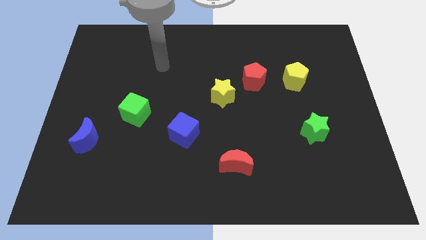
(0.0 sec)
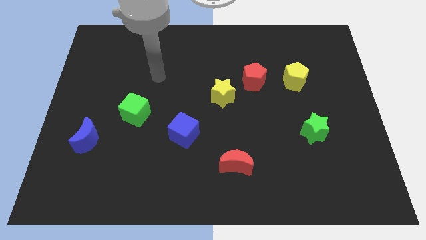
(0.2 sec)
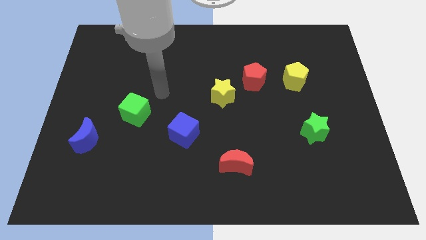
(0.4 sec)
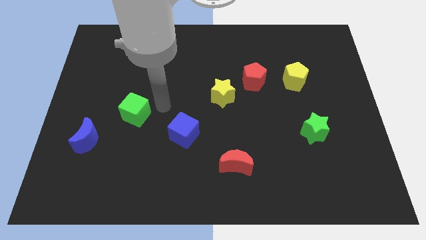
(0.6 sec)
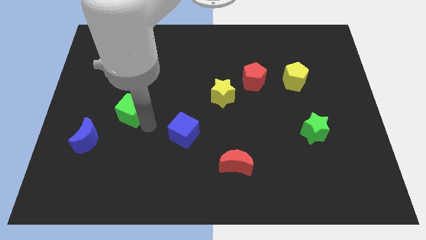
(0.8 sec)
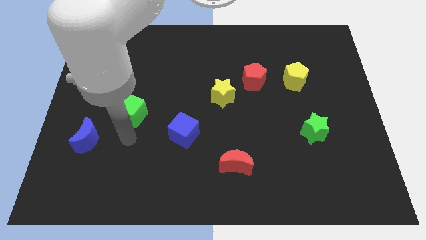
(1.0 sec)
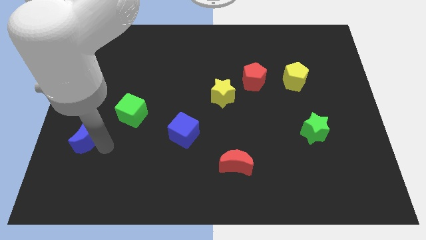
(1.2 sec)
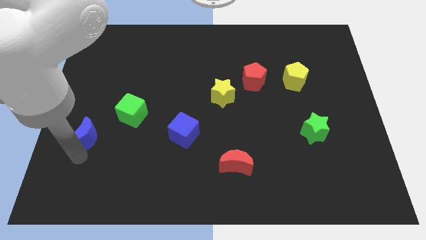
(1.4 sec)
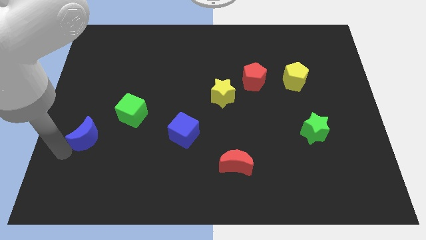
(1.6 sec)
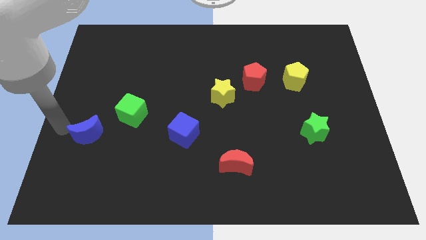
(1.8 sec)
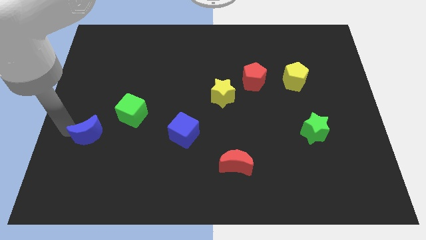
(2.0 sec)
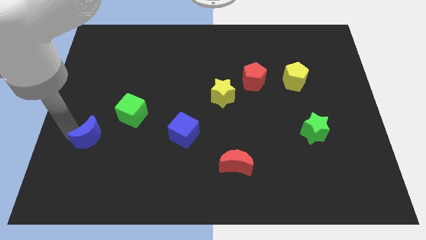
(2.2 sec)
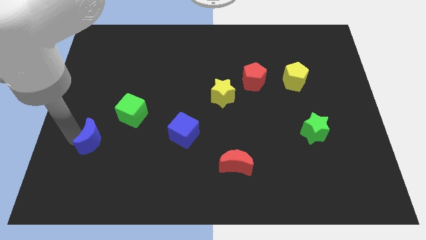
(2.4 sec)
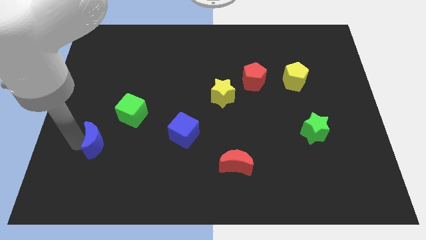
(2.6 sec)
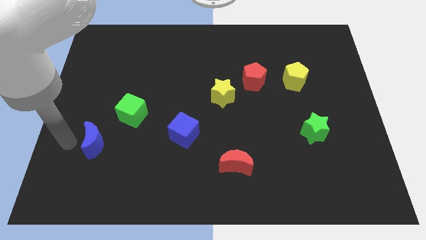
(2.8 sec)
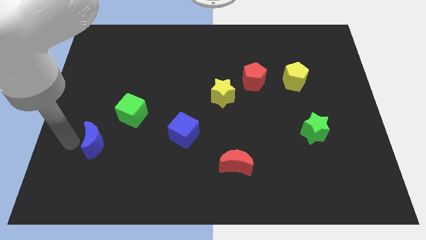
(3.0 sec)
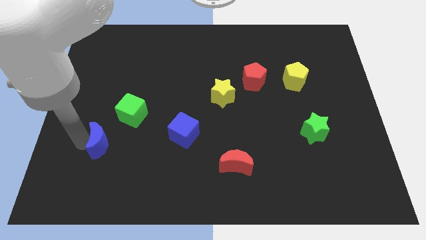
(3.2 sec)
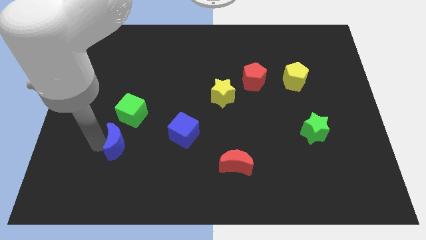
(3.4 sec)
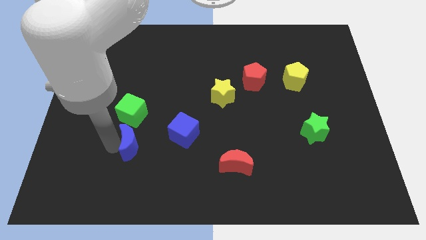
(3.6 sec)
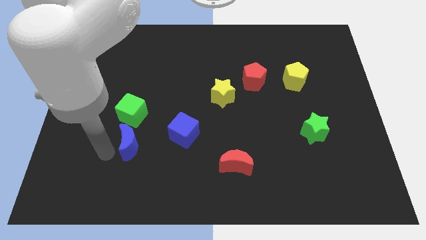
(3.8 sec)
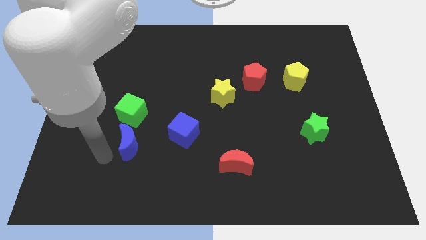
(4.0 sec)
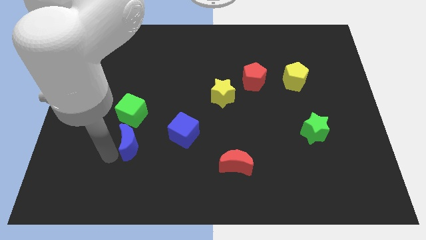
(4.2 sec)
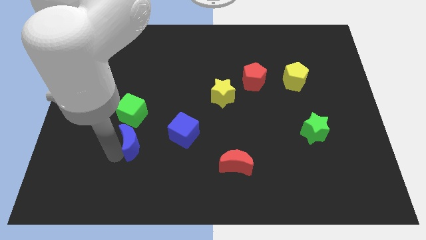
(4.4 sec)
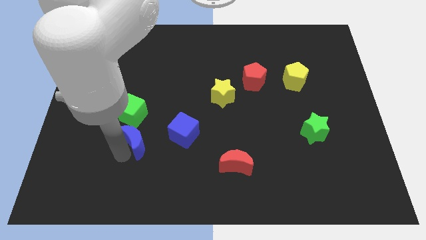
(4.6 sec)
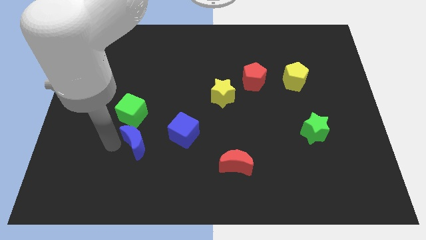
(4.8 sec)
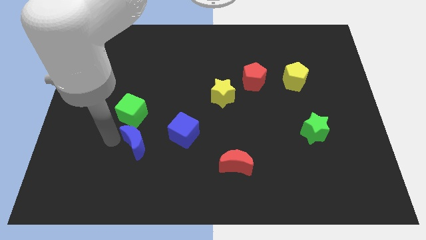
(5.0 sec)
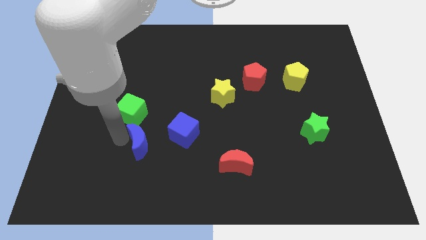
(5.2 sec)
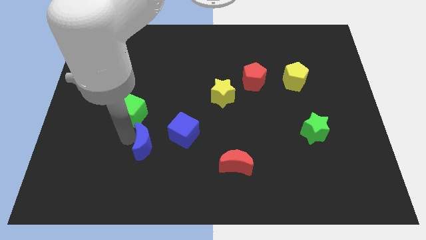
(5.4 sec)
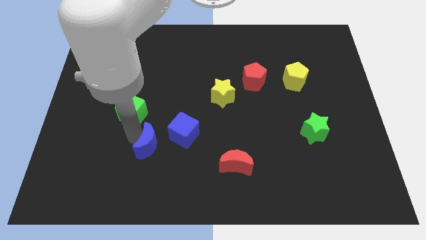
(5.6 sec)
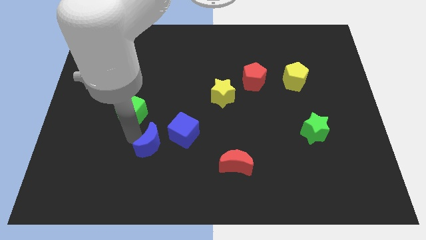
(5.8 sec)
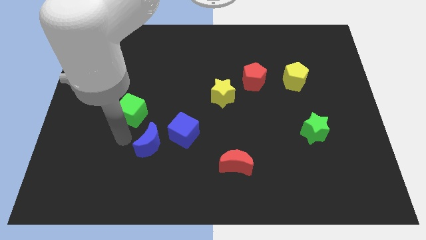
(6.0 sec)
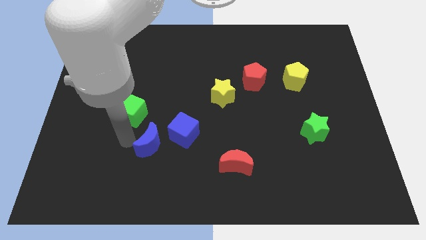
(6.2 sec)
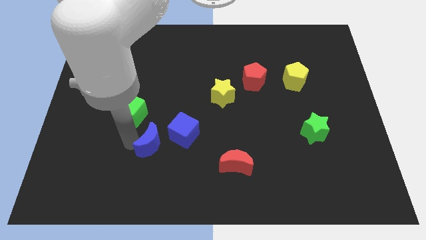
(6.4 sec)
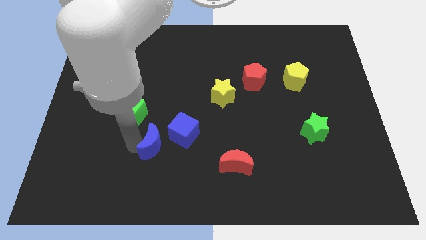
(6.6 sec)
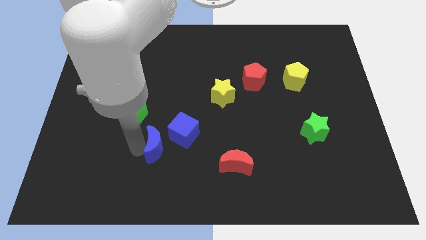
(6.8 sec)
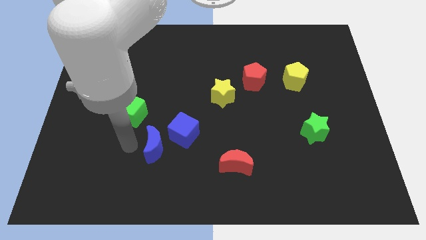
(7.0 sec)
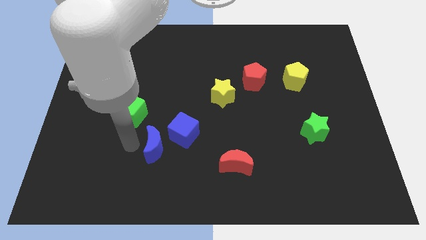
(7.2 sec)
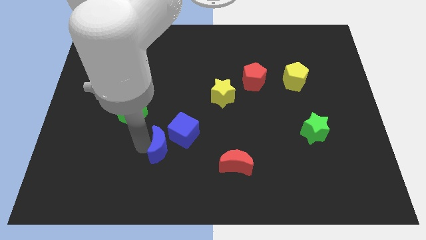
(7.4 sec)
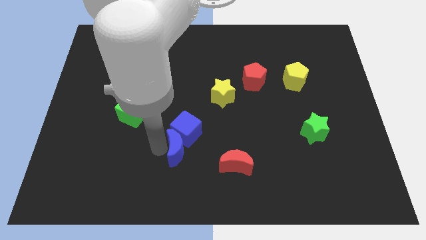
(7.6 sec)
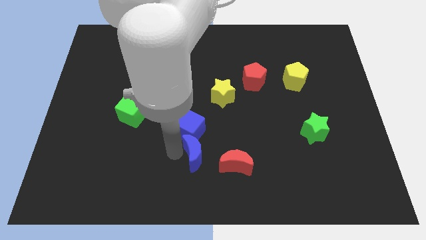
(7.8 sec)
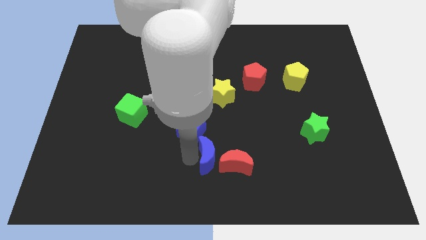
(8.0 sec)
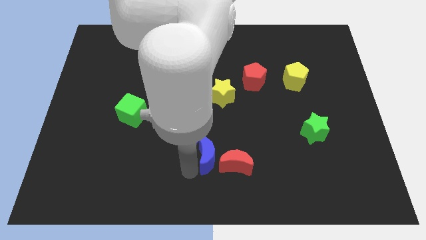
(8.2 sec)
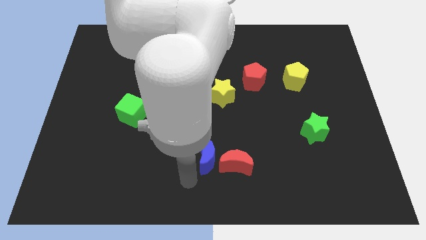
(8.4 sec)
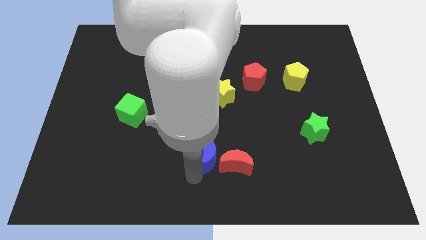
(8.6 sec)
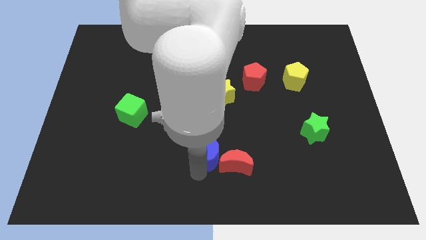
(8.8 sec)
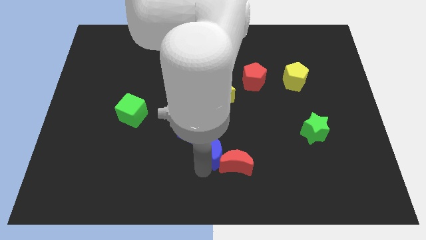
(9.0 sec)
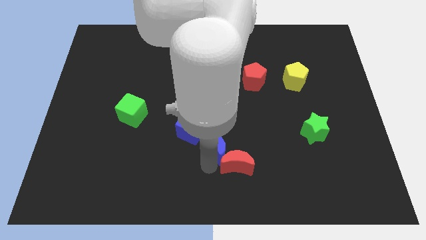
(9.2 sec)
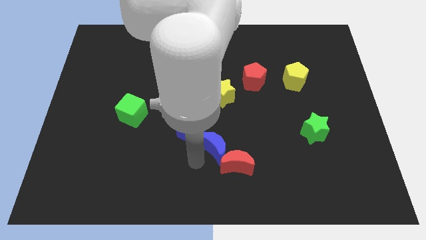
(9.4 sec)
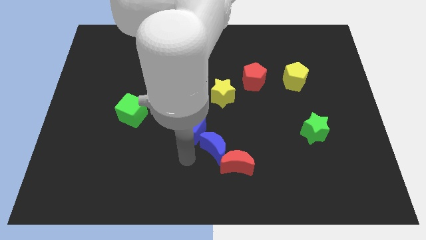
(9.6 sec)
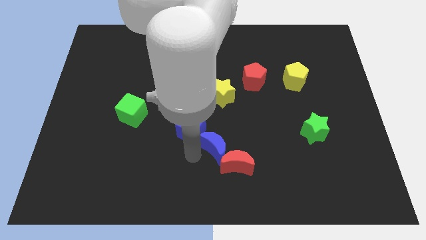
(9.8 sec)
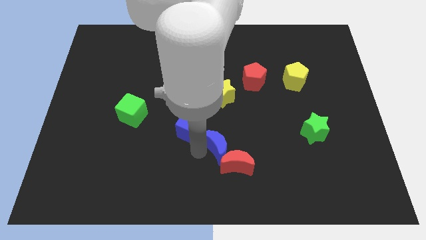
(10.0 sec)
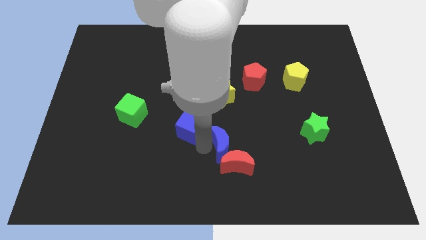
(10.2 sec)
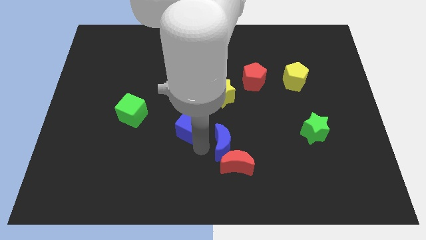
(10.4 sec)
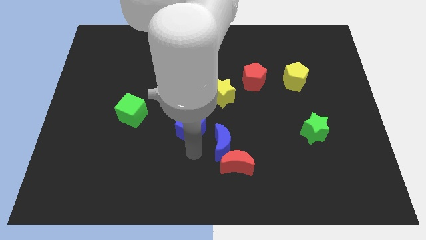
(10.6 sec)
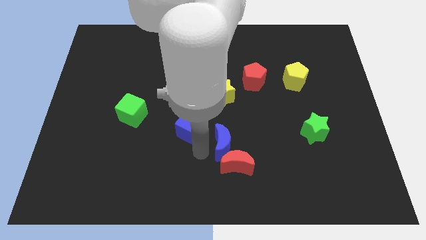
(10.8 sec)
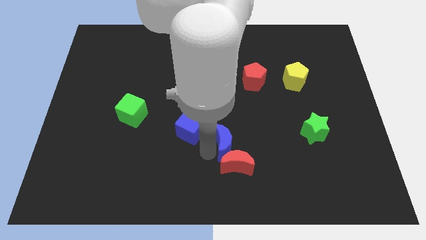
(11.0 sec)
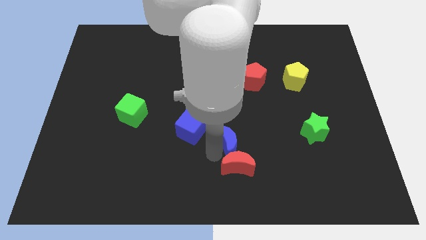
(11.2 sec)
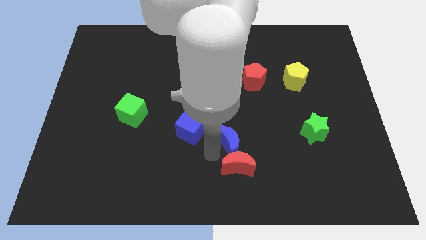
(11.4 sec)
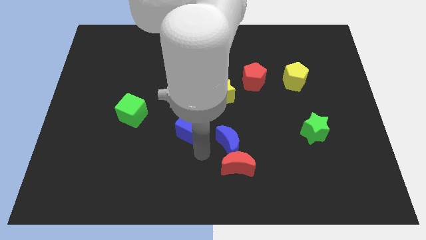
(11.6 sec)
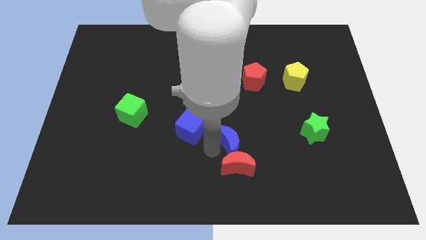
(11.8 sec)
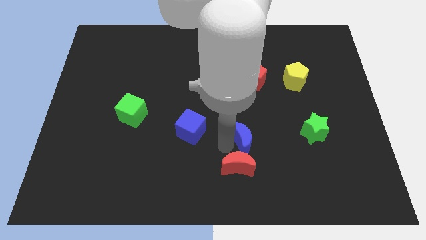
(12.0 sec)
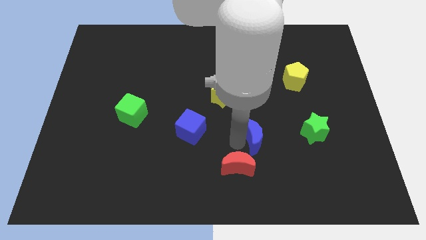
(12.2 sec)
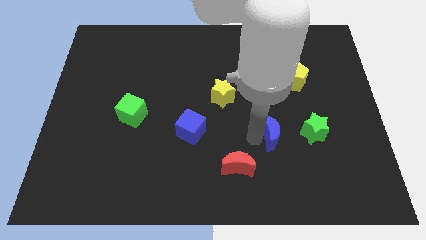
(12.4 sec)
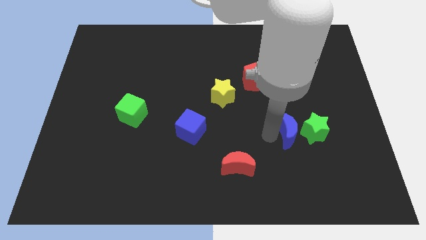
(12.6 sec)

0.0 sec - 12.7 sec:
push the blue moon close to the green star

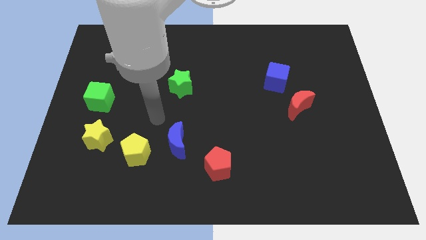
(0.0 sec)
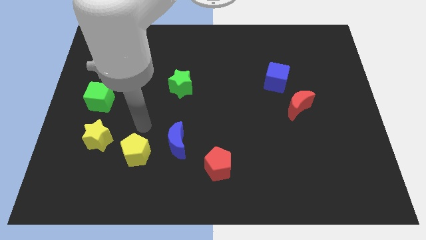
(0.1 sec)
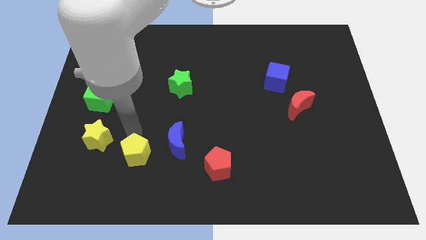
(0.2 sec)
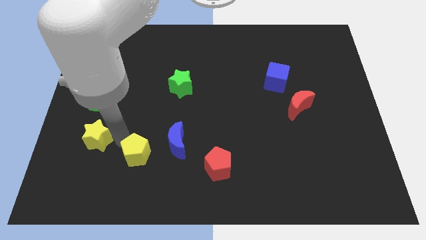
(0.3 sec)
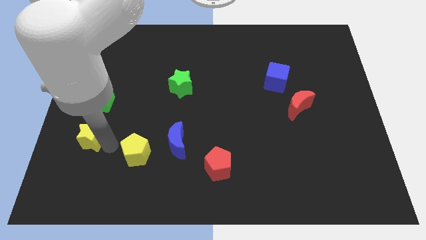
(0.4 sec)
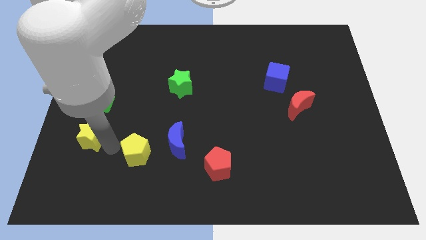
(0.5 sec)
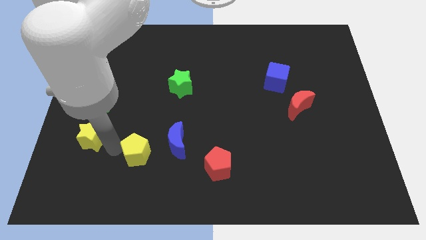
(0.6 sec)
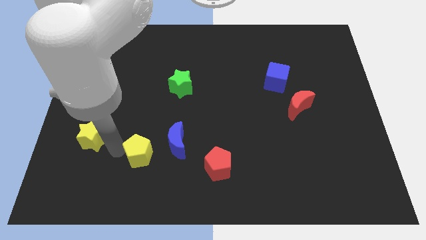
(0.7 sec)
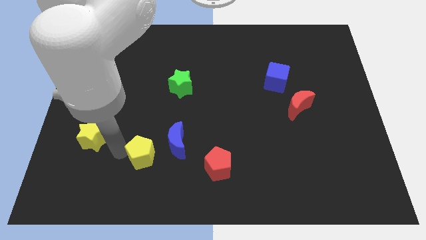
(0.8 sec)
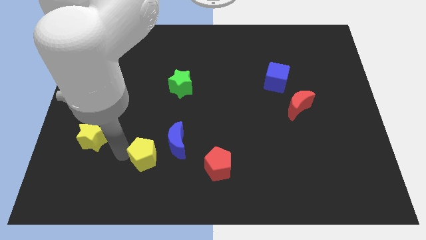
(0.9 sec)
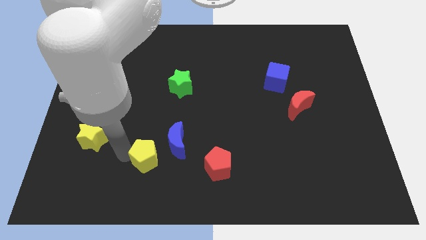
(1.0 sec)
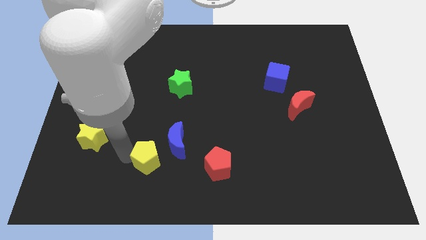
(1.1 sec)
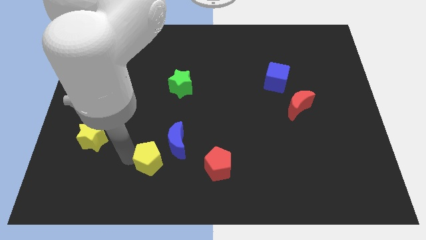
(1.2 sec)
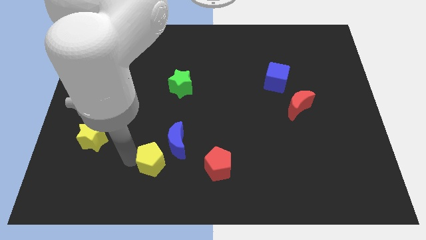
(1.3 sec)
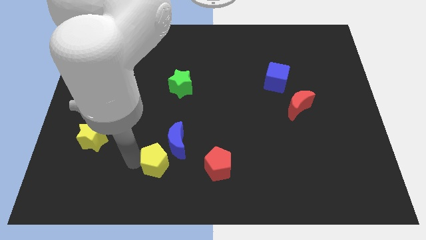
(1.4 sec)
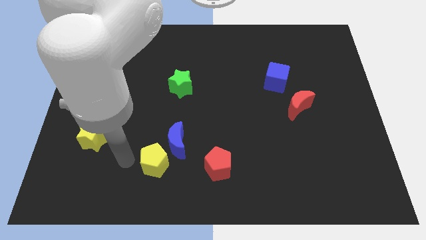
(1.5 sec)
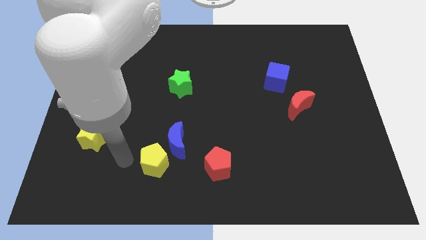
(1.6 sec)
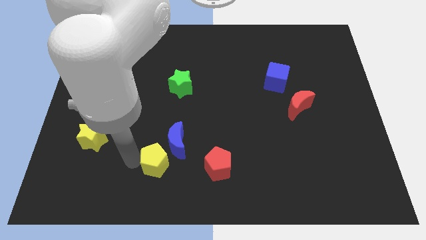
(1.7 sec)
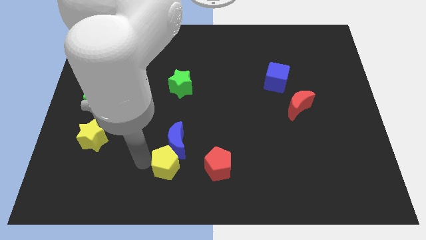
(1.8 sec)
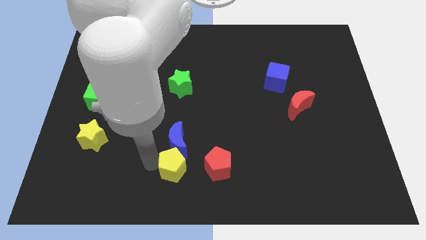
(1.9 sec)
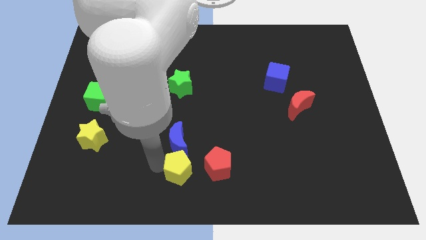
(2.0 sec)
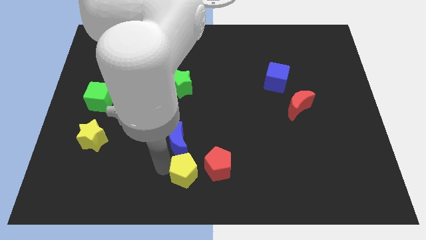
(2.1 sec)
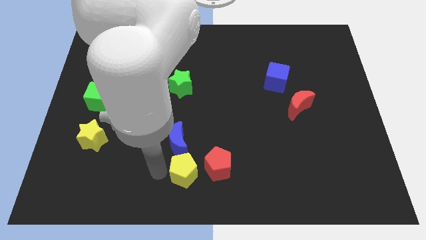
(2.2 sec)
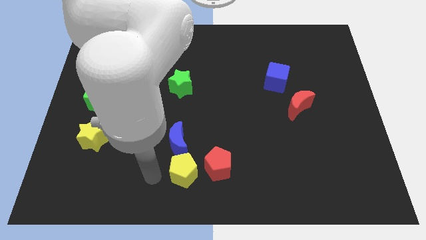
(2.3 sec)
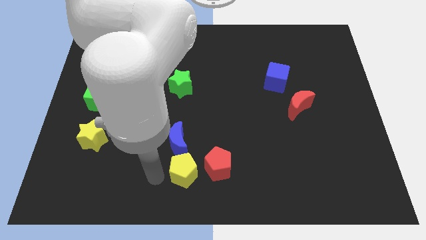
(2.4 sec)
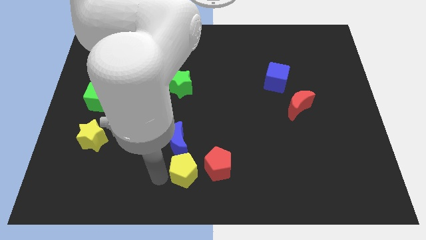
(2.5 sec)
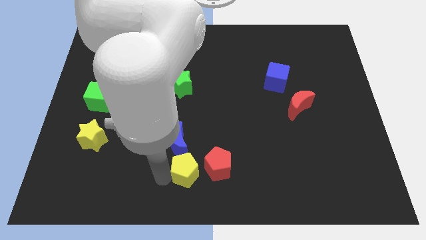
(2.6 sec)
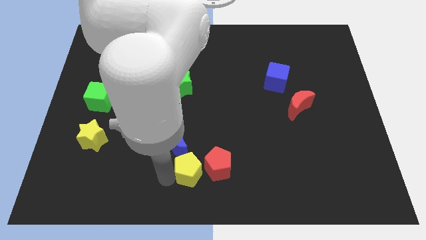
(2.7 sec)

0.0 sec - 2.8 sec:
move the yellow pentagon towards the red pentagon
